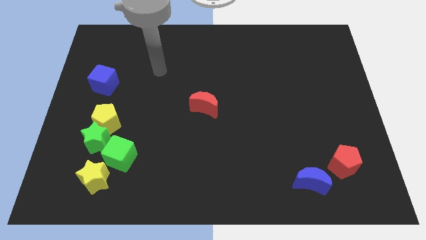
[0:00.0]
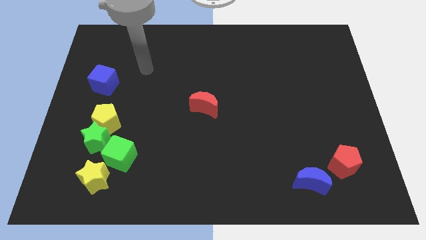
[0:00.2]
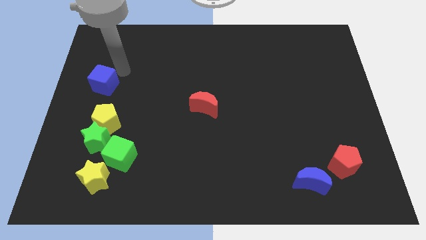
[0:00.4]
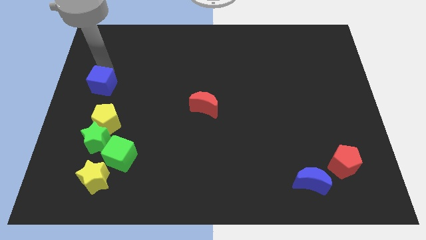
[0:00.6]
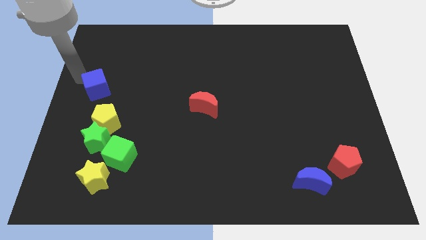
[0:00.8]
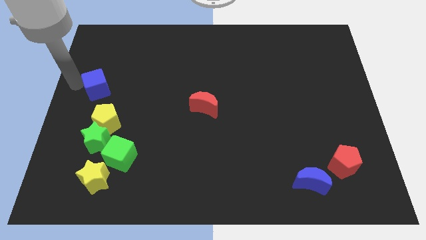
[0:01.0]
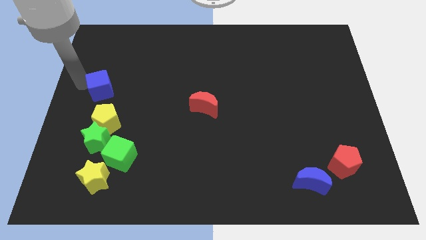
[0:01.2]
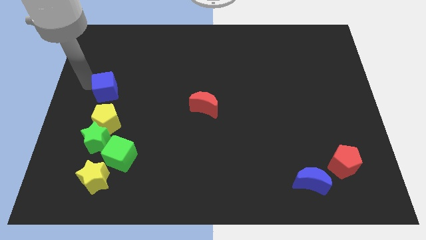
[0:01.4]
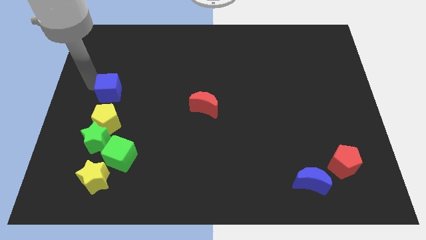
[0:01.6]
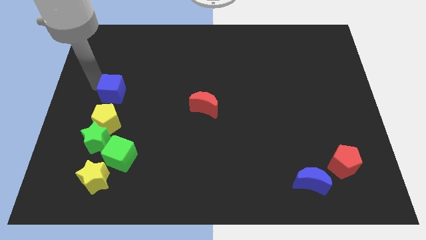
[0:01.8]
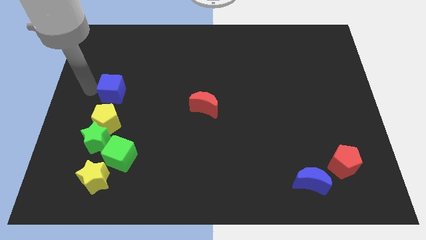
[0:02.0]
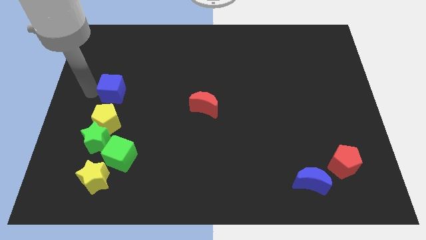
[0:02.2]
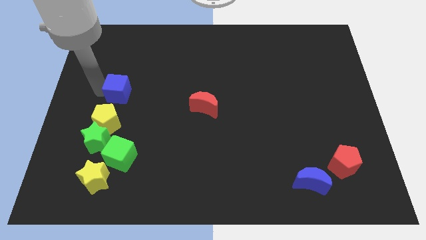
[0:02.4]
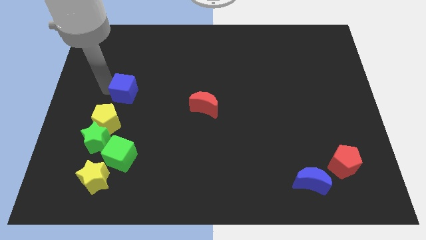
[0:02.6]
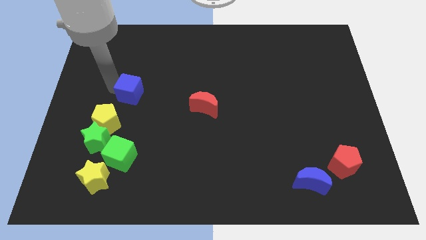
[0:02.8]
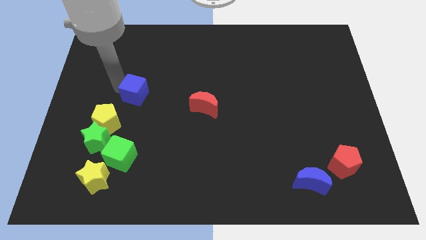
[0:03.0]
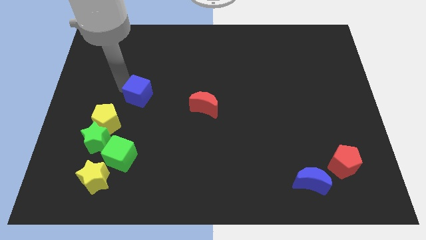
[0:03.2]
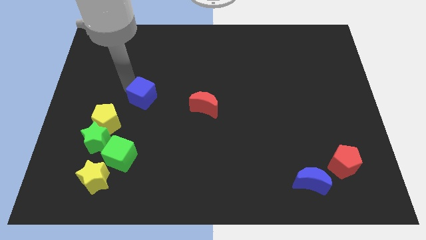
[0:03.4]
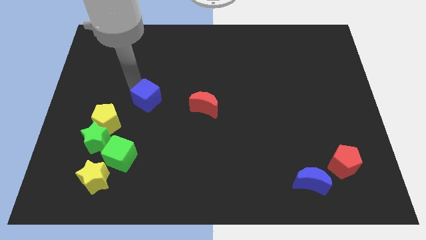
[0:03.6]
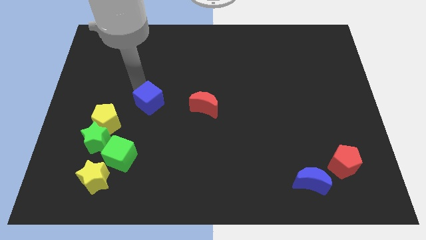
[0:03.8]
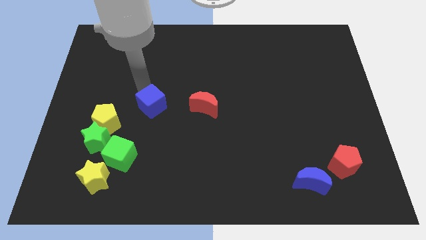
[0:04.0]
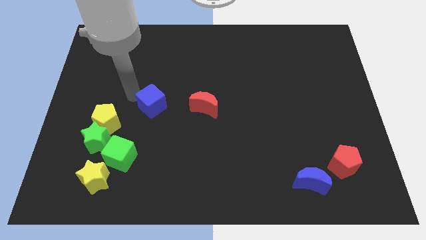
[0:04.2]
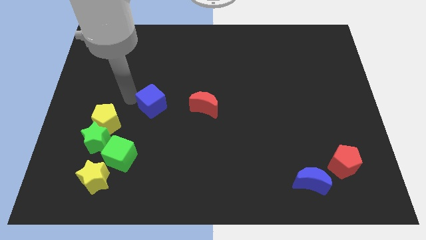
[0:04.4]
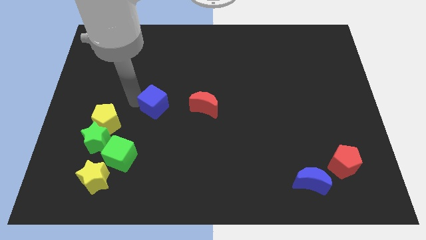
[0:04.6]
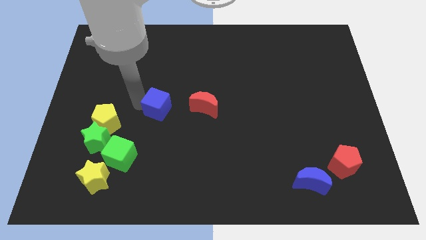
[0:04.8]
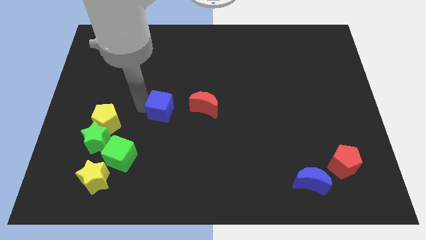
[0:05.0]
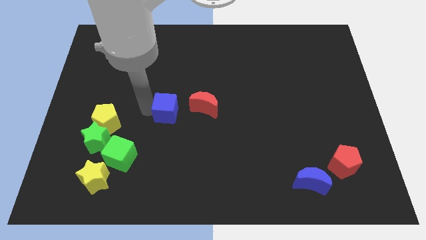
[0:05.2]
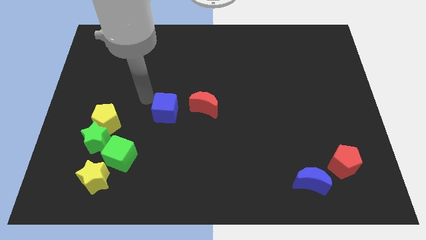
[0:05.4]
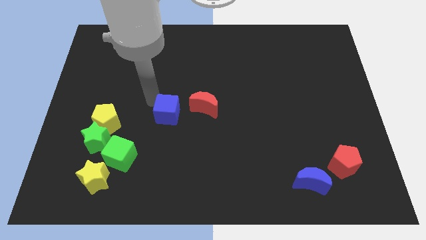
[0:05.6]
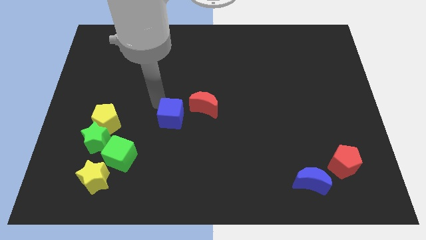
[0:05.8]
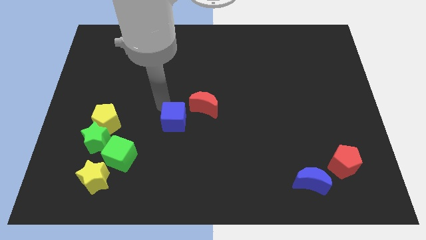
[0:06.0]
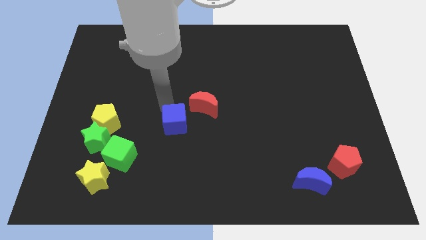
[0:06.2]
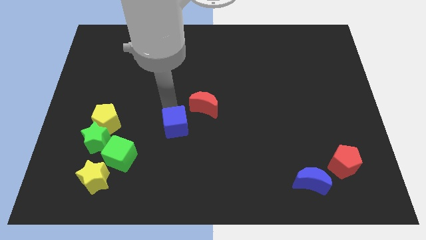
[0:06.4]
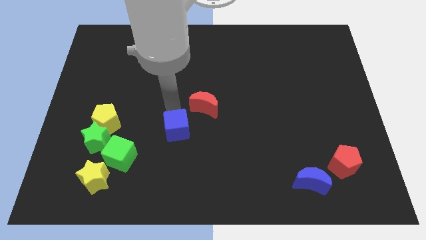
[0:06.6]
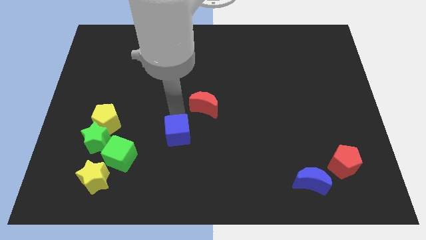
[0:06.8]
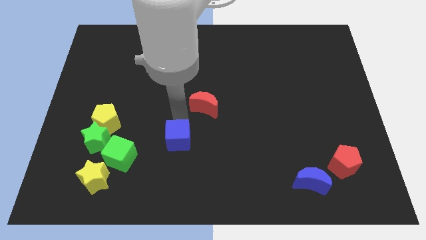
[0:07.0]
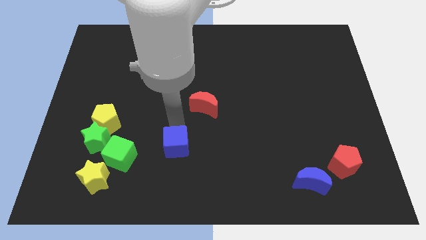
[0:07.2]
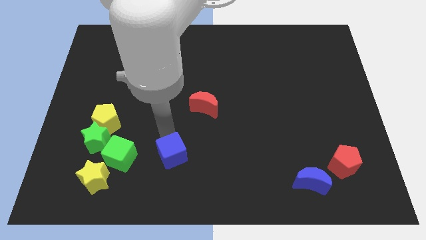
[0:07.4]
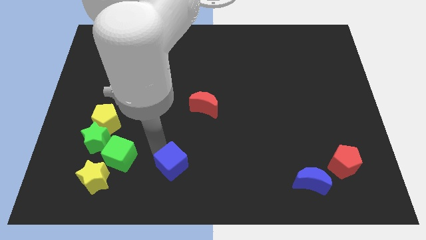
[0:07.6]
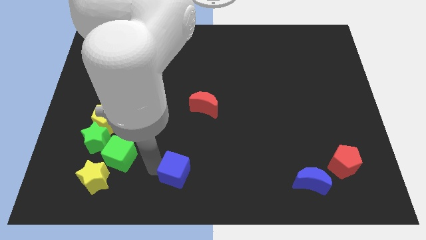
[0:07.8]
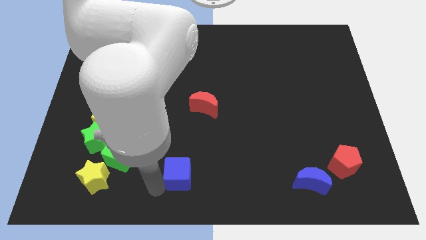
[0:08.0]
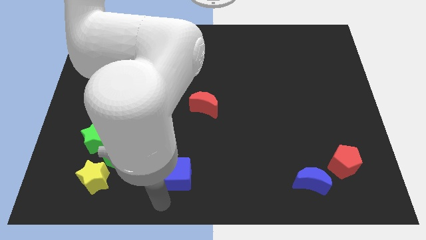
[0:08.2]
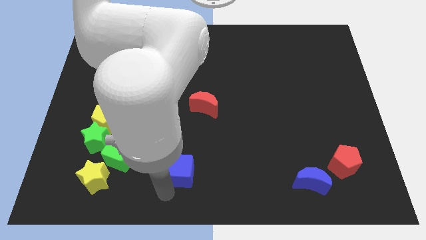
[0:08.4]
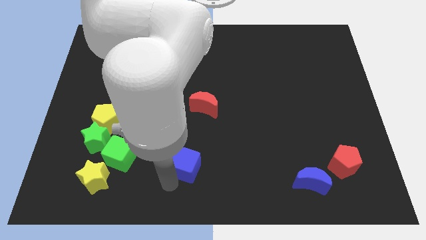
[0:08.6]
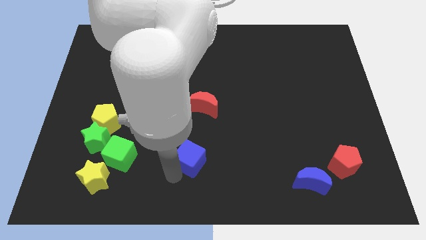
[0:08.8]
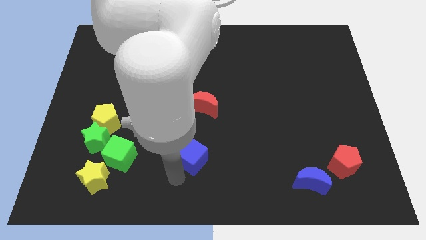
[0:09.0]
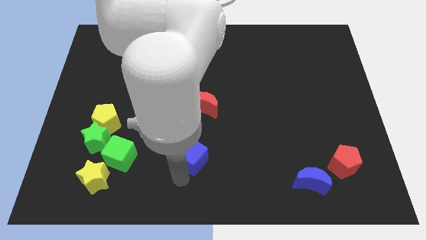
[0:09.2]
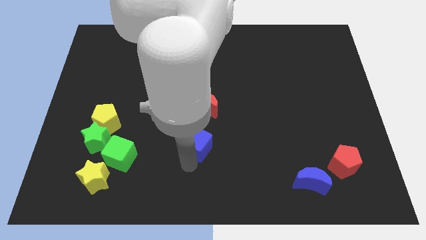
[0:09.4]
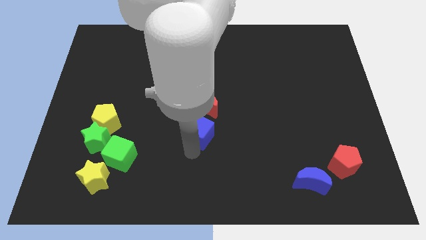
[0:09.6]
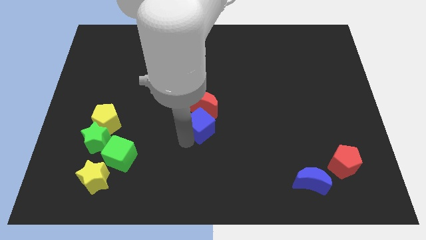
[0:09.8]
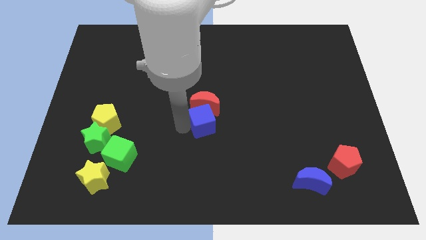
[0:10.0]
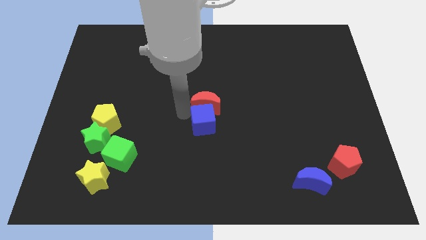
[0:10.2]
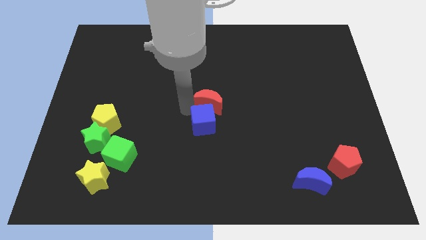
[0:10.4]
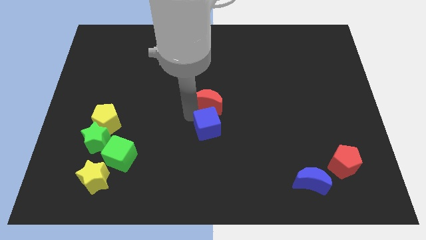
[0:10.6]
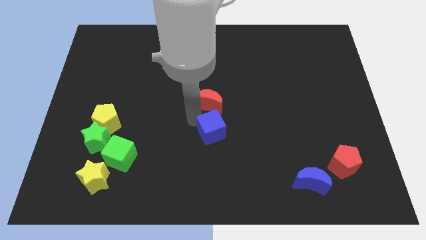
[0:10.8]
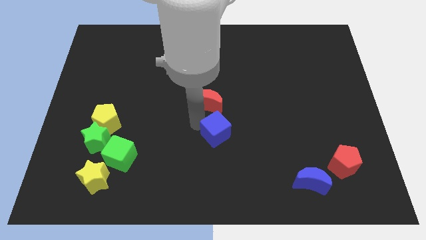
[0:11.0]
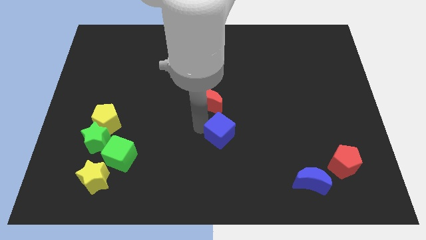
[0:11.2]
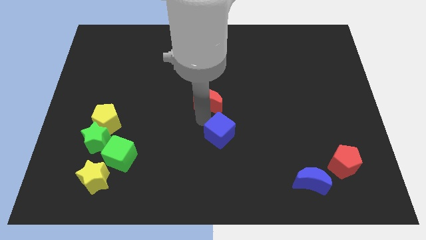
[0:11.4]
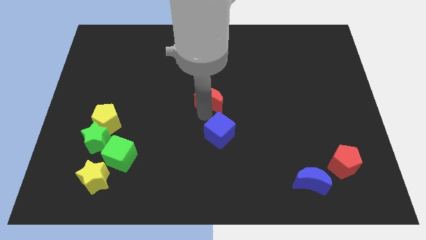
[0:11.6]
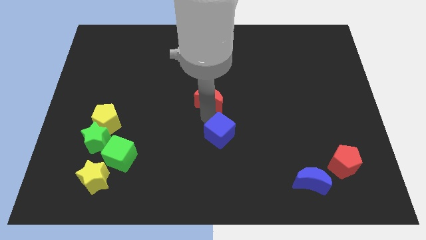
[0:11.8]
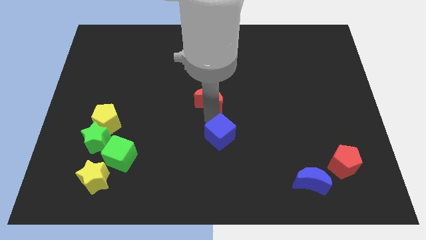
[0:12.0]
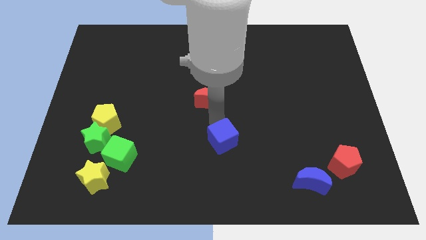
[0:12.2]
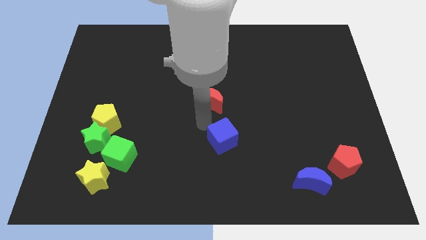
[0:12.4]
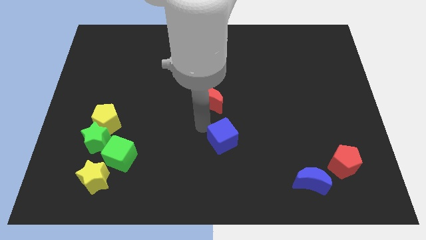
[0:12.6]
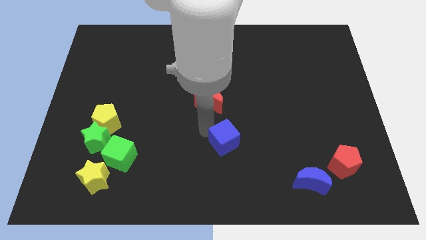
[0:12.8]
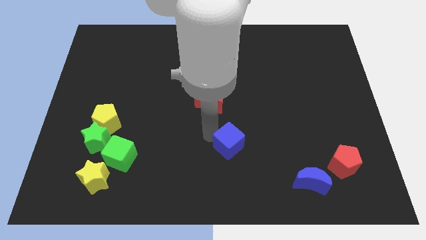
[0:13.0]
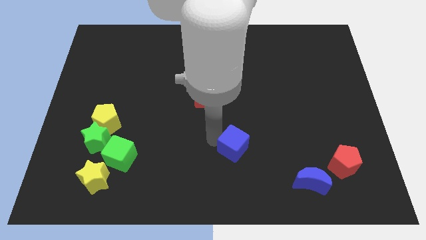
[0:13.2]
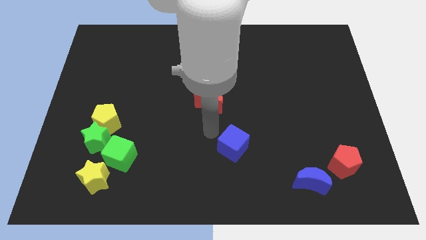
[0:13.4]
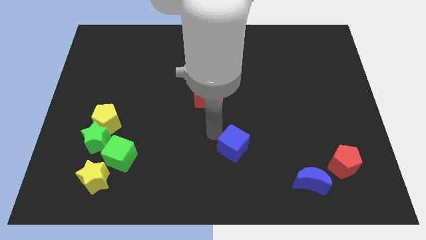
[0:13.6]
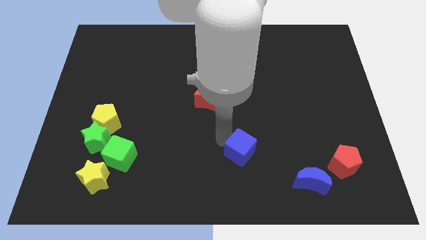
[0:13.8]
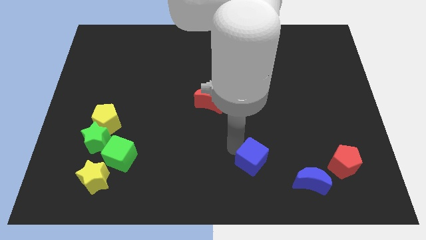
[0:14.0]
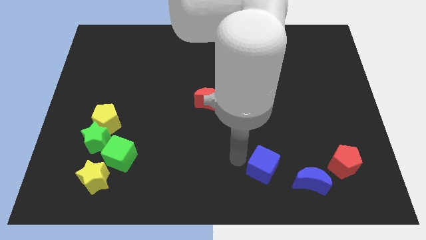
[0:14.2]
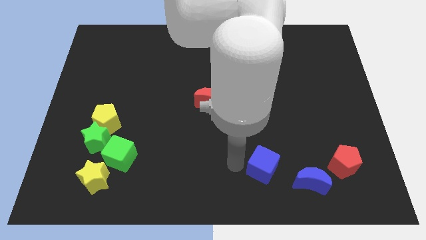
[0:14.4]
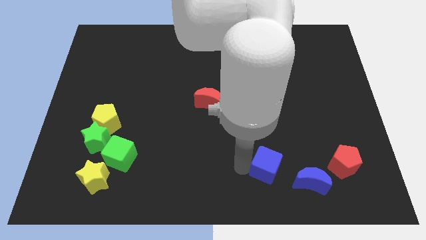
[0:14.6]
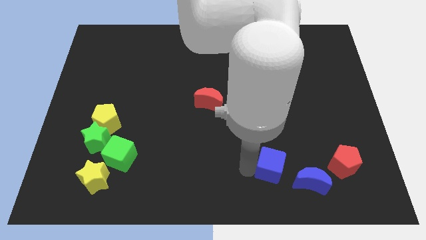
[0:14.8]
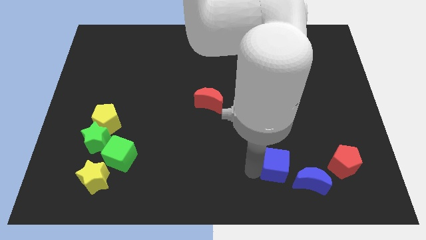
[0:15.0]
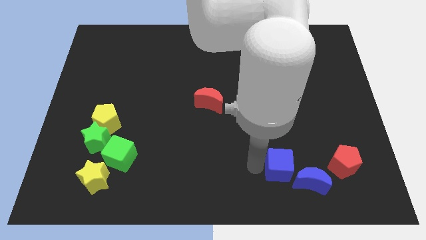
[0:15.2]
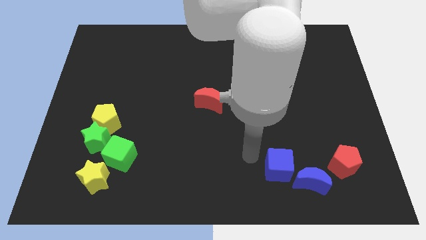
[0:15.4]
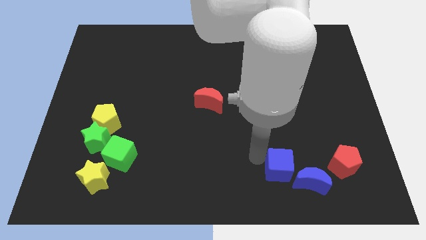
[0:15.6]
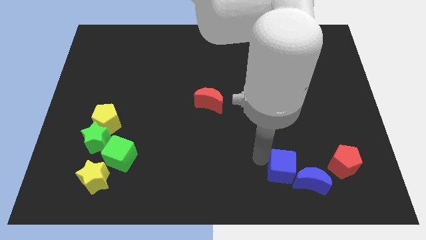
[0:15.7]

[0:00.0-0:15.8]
slide the blue cube to the blue moon
